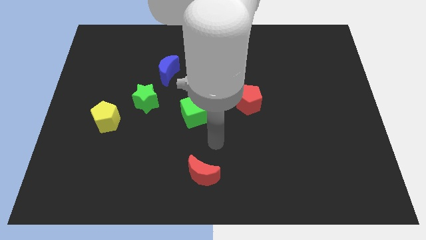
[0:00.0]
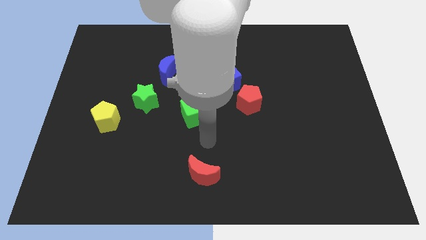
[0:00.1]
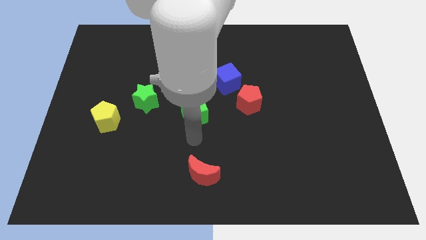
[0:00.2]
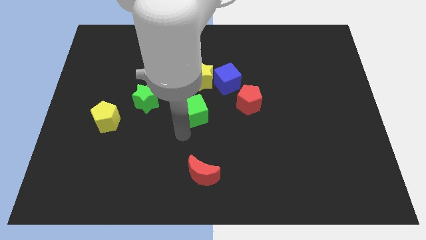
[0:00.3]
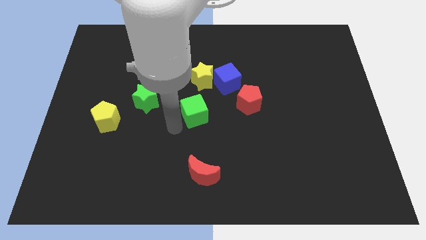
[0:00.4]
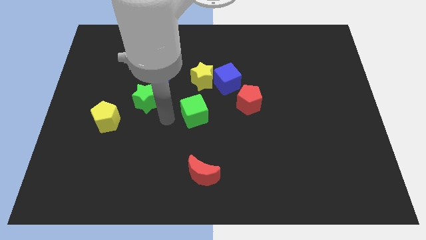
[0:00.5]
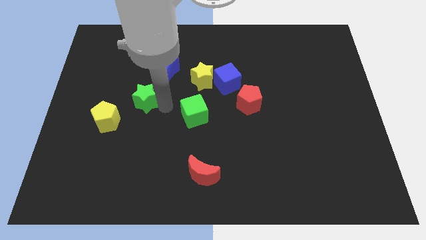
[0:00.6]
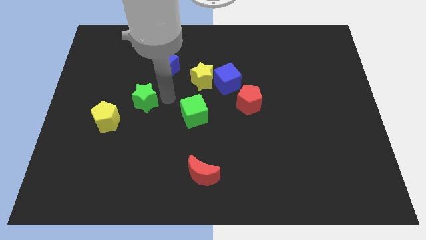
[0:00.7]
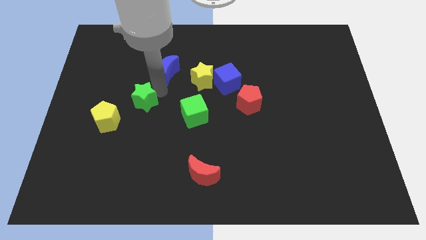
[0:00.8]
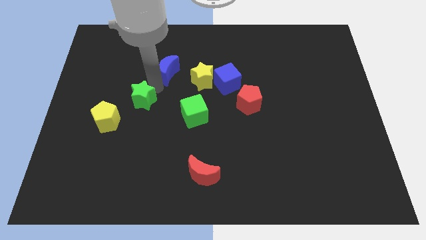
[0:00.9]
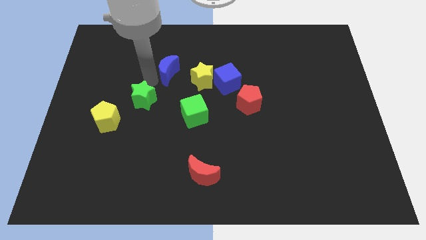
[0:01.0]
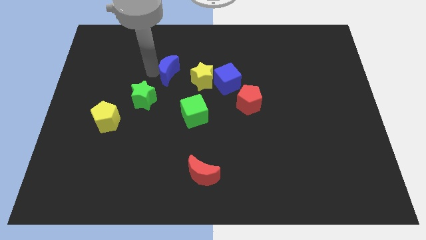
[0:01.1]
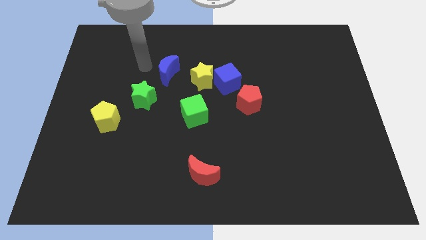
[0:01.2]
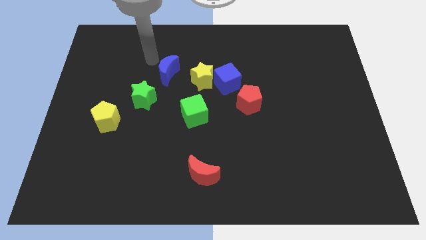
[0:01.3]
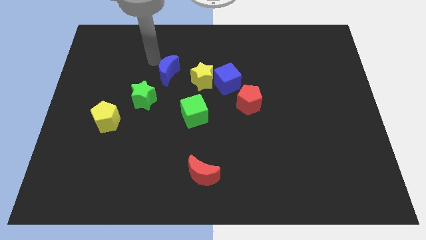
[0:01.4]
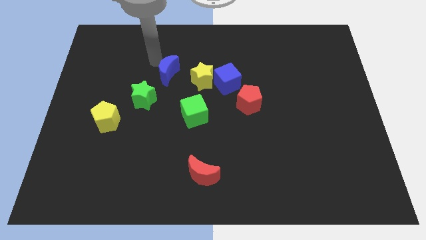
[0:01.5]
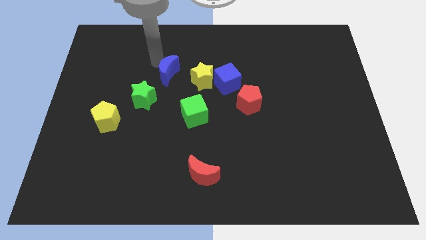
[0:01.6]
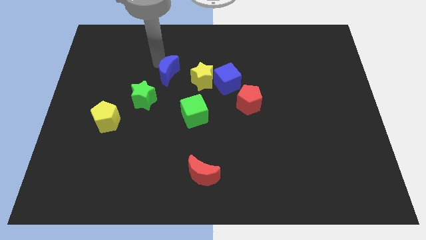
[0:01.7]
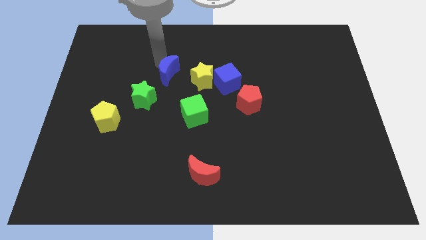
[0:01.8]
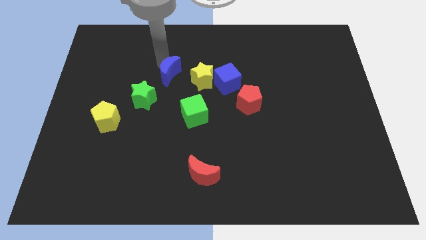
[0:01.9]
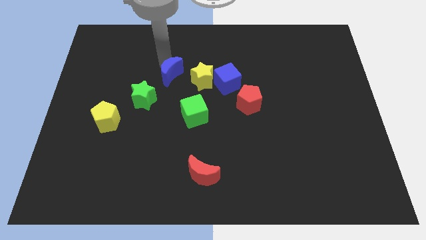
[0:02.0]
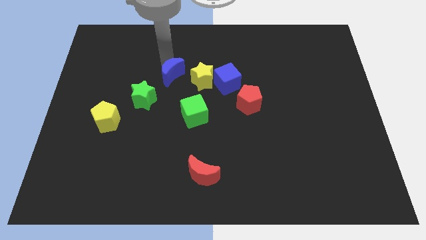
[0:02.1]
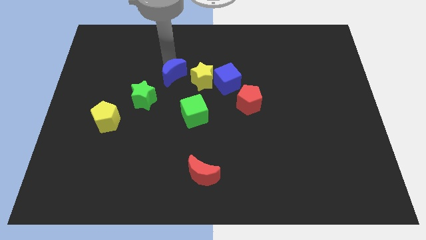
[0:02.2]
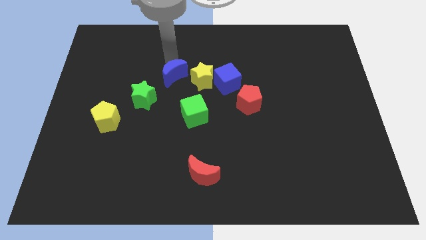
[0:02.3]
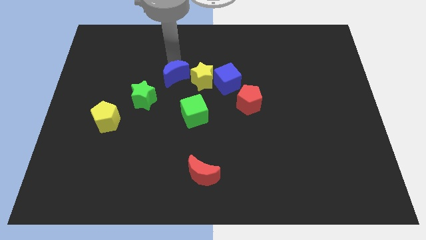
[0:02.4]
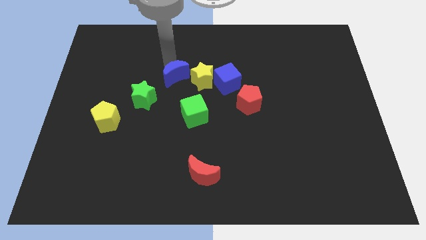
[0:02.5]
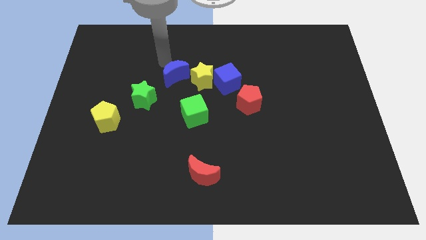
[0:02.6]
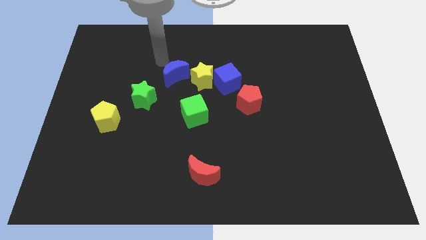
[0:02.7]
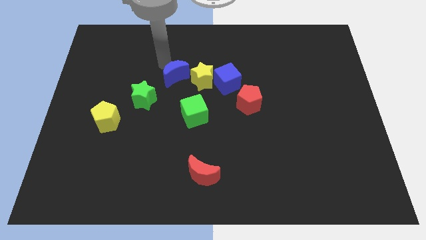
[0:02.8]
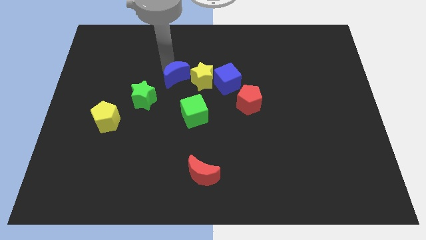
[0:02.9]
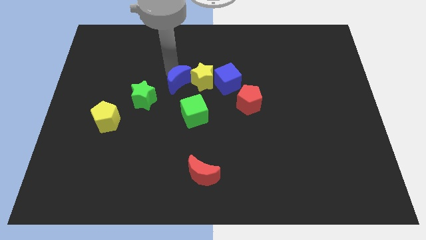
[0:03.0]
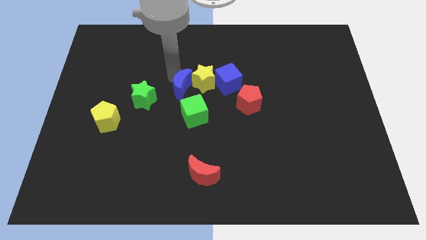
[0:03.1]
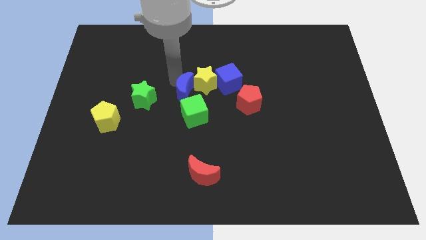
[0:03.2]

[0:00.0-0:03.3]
push the blue moon down and to the right somewhat

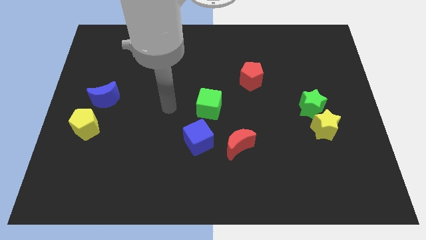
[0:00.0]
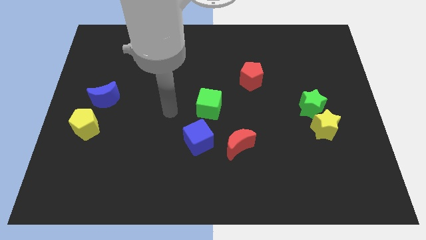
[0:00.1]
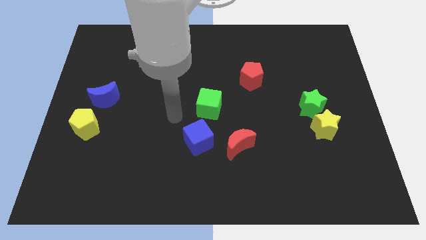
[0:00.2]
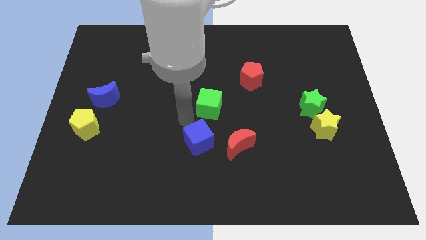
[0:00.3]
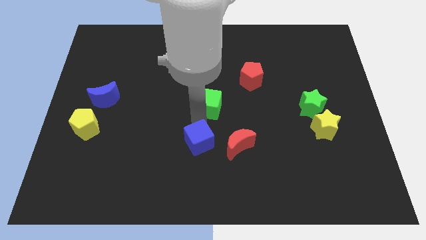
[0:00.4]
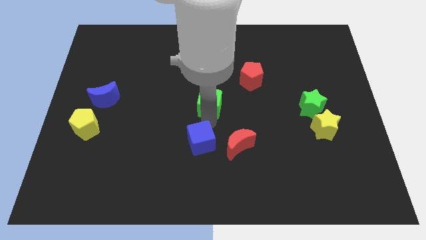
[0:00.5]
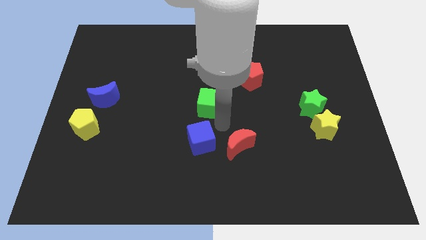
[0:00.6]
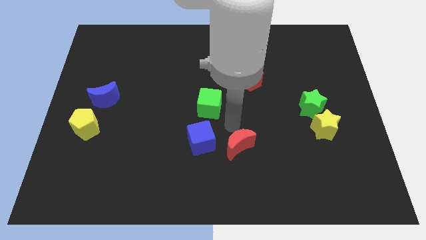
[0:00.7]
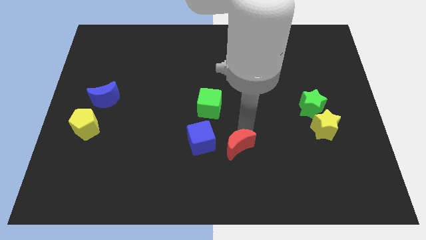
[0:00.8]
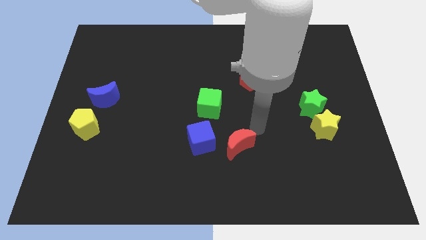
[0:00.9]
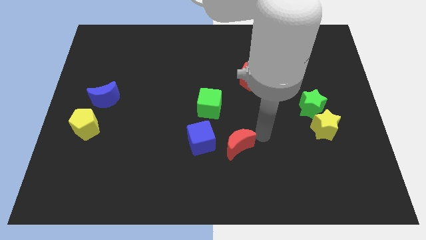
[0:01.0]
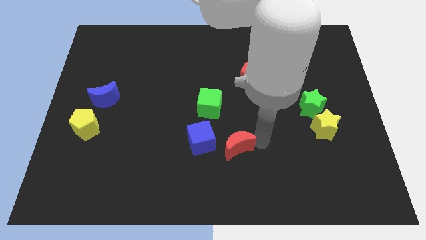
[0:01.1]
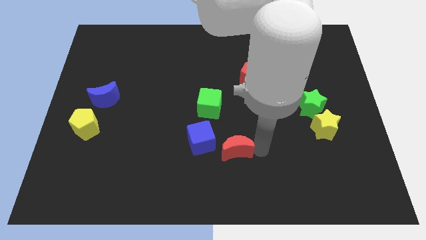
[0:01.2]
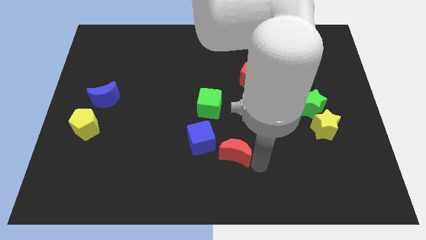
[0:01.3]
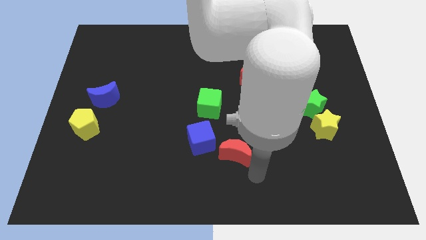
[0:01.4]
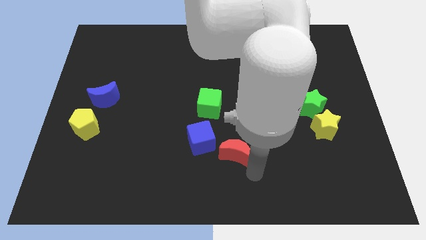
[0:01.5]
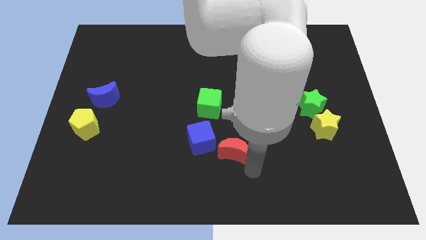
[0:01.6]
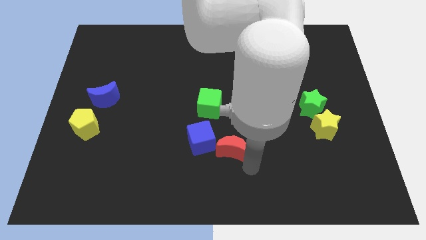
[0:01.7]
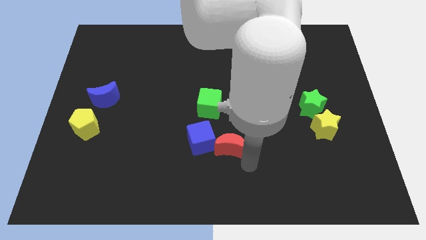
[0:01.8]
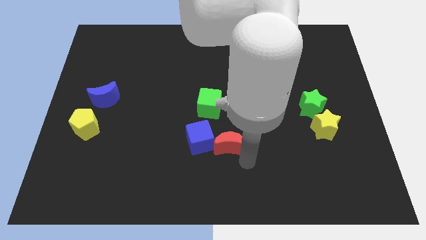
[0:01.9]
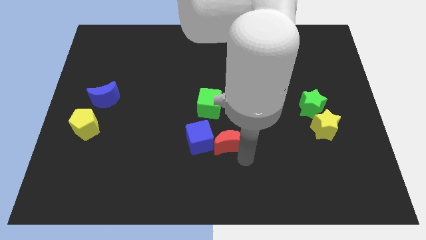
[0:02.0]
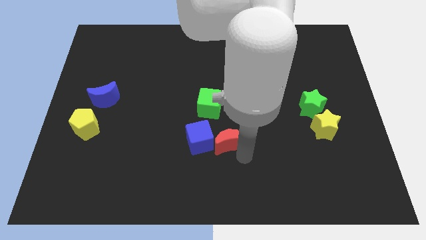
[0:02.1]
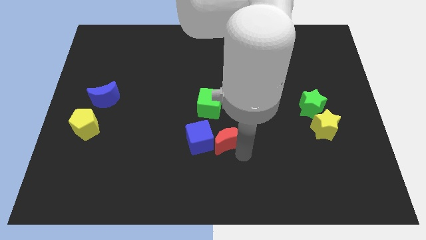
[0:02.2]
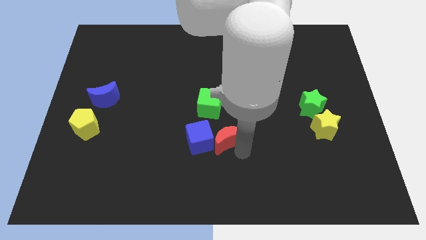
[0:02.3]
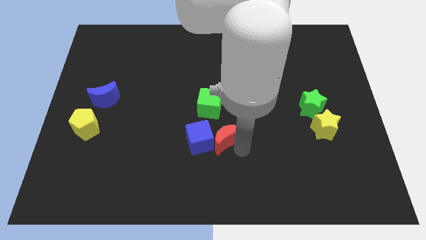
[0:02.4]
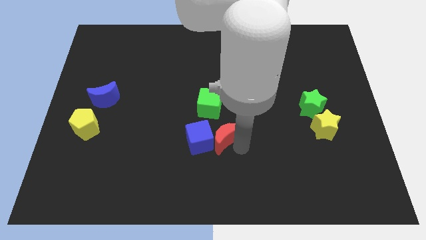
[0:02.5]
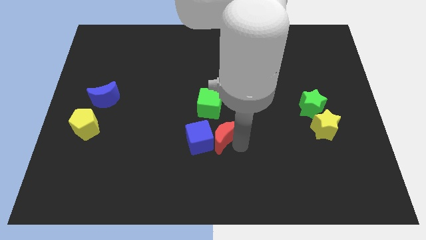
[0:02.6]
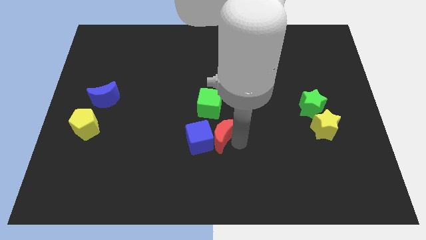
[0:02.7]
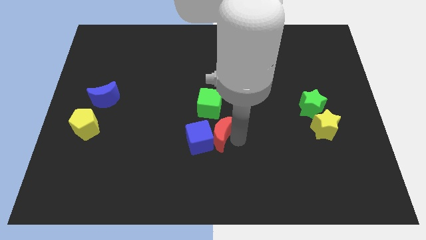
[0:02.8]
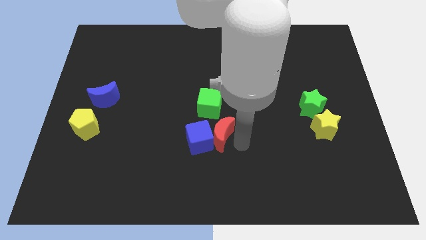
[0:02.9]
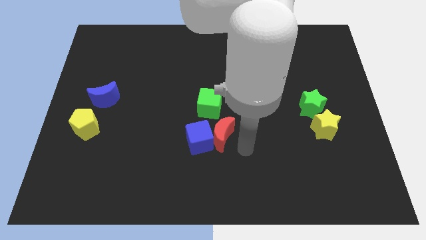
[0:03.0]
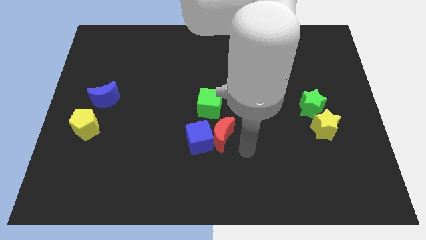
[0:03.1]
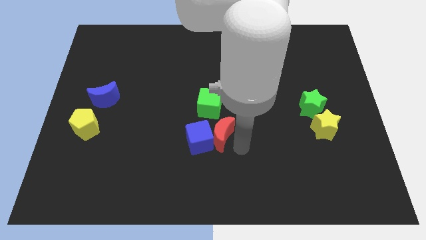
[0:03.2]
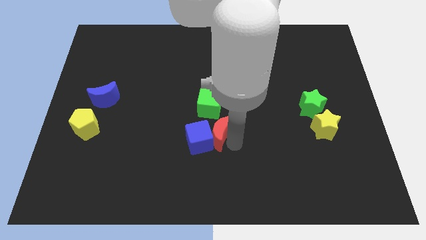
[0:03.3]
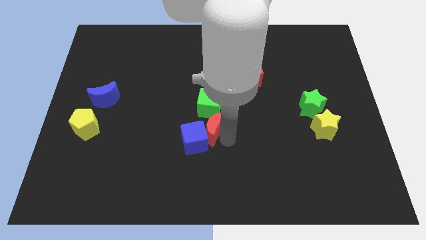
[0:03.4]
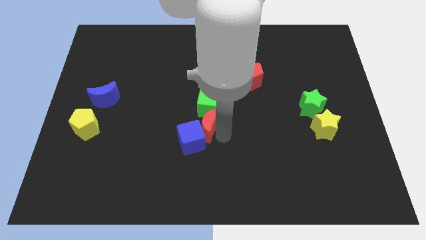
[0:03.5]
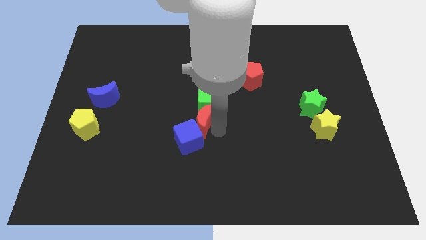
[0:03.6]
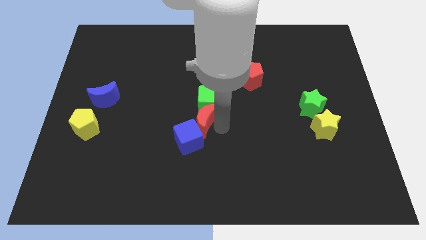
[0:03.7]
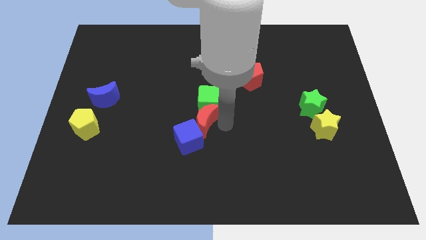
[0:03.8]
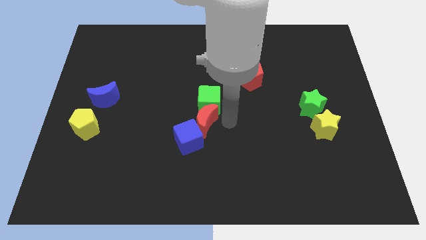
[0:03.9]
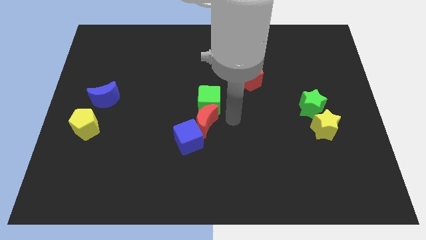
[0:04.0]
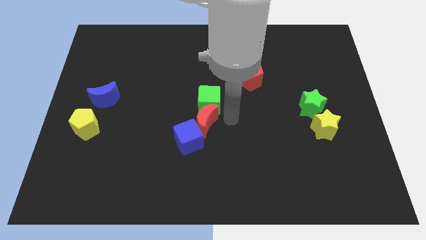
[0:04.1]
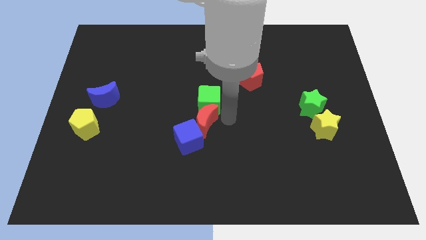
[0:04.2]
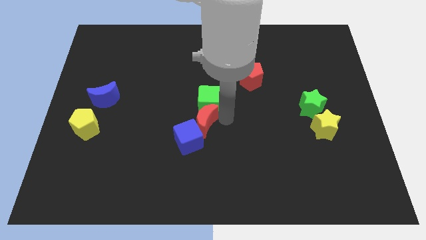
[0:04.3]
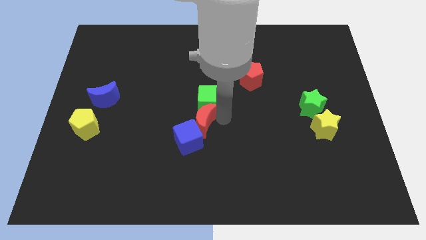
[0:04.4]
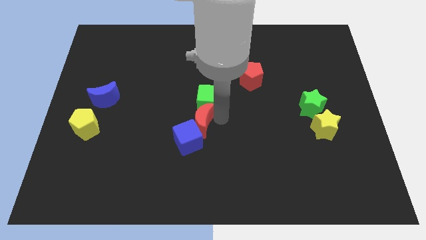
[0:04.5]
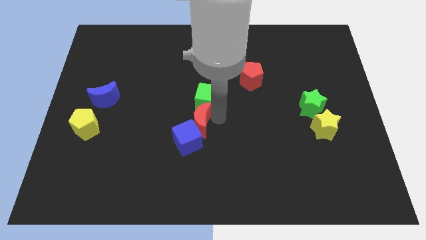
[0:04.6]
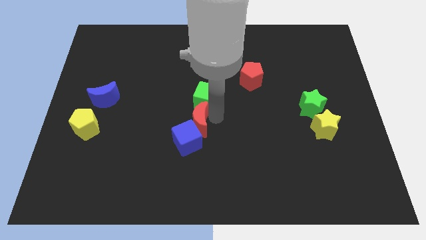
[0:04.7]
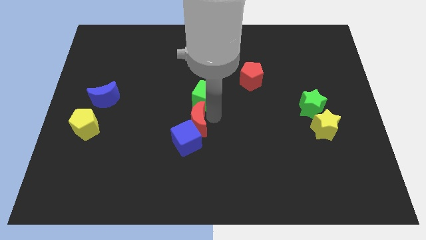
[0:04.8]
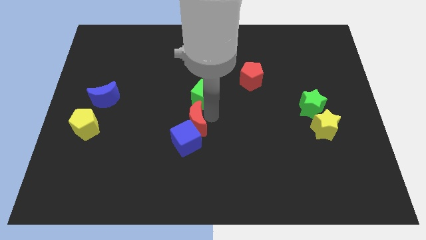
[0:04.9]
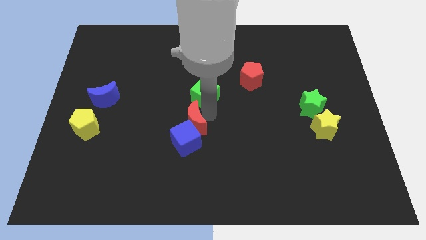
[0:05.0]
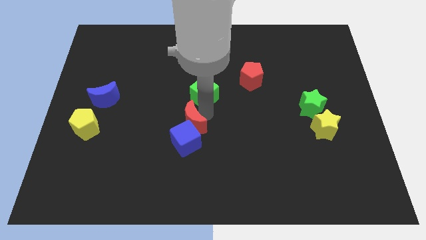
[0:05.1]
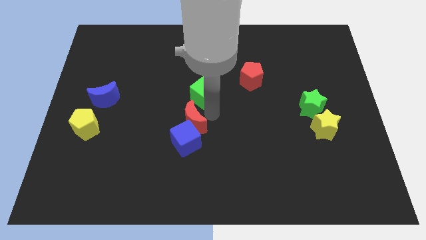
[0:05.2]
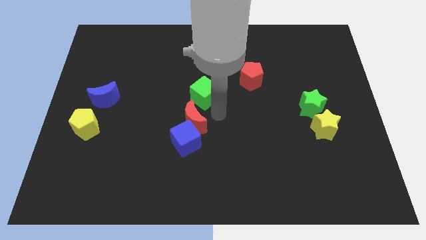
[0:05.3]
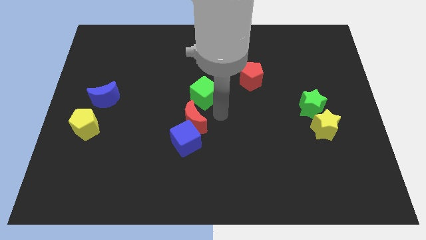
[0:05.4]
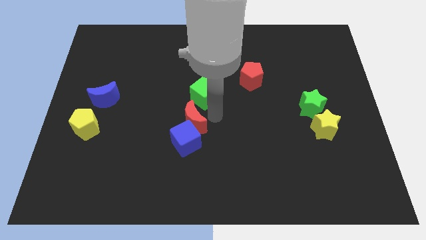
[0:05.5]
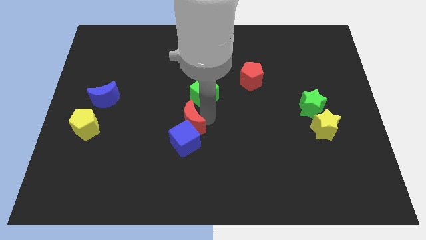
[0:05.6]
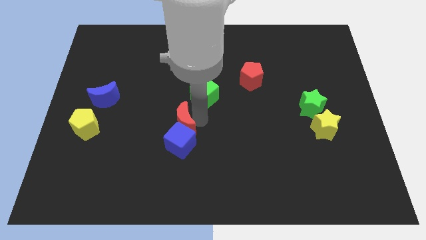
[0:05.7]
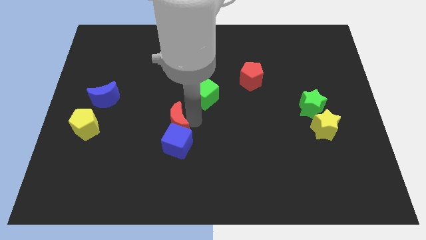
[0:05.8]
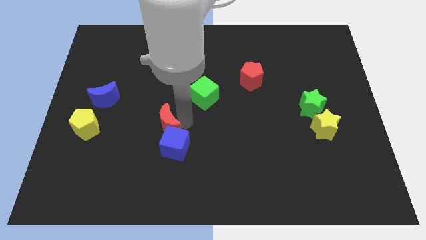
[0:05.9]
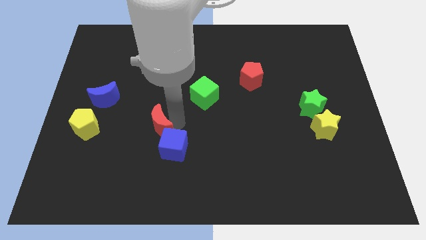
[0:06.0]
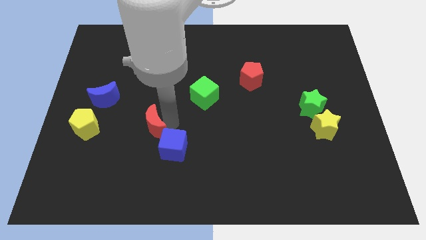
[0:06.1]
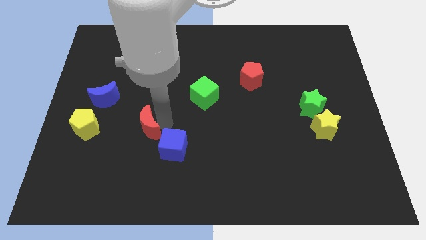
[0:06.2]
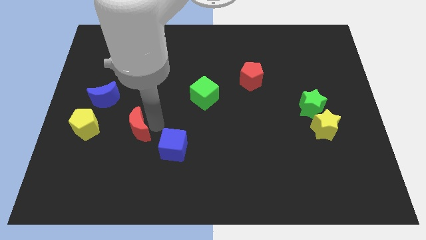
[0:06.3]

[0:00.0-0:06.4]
slide the red moon left
